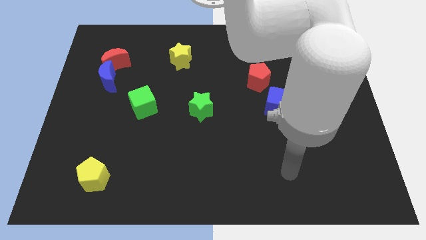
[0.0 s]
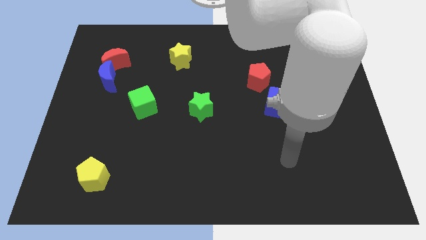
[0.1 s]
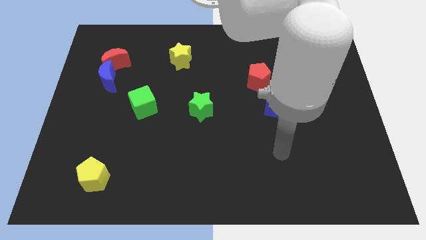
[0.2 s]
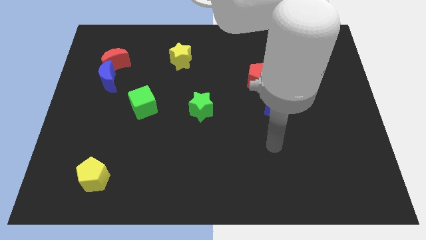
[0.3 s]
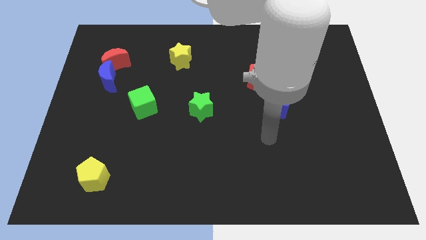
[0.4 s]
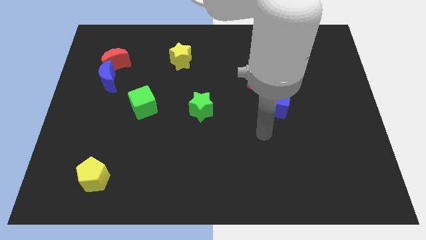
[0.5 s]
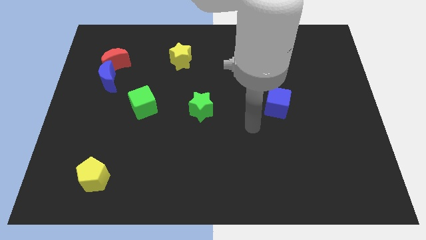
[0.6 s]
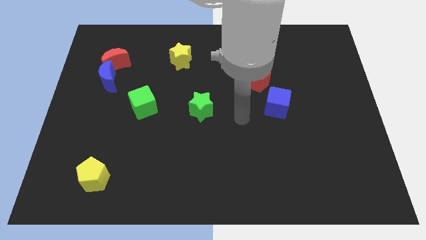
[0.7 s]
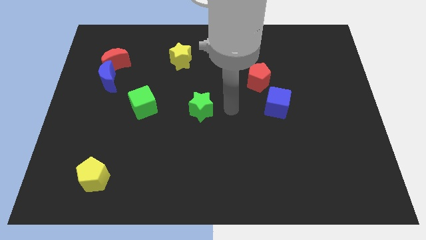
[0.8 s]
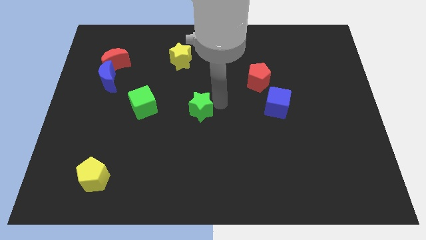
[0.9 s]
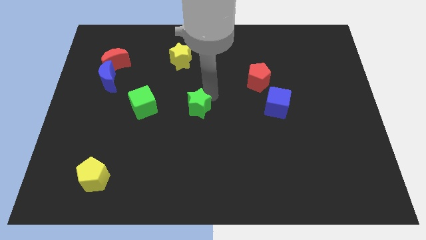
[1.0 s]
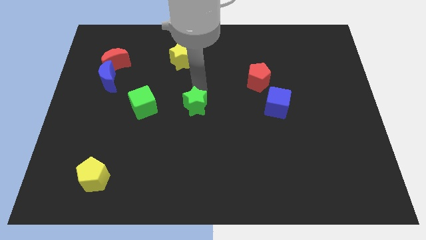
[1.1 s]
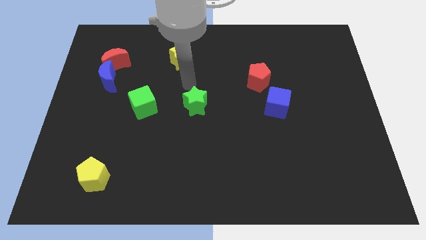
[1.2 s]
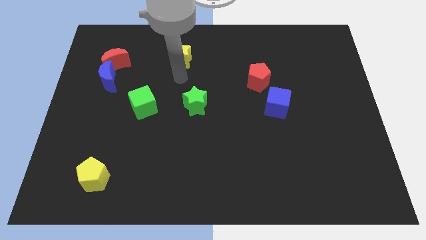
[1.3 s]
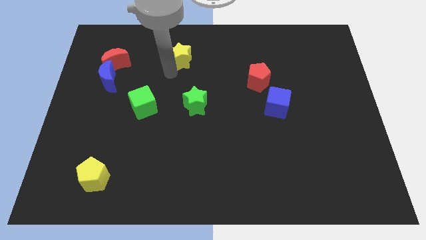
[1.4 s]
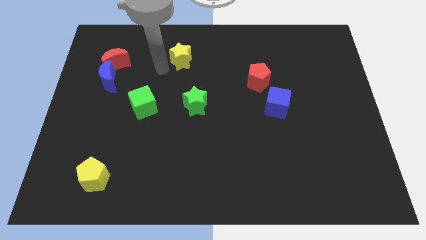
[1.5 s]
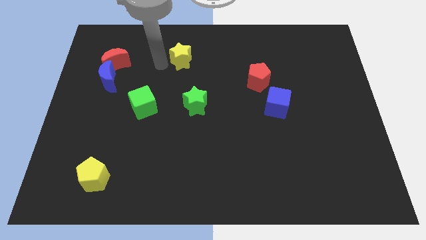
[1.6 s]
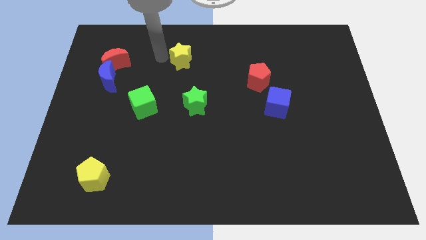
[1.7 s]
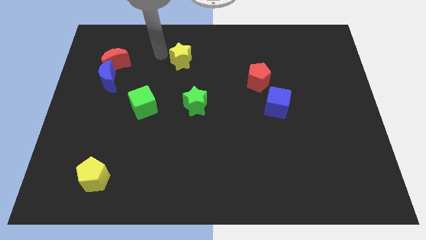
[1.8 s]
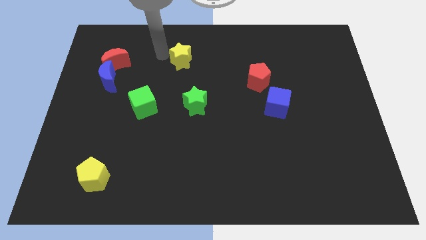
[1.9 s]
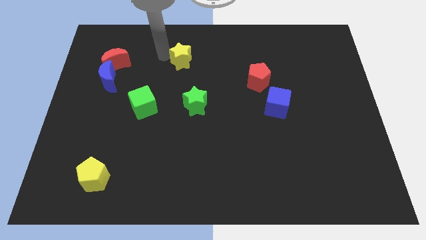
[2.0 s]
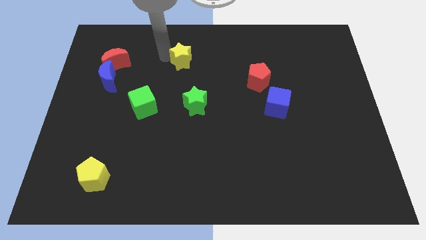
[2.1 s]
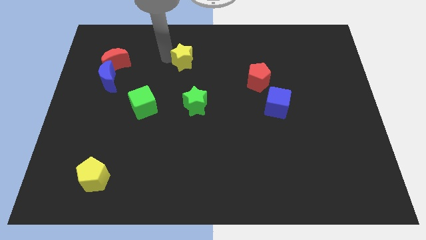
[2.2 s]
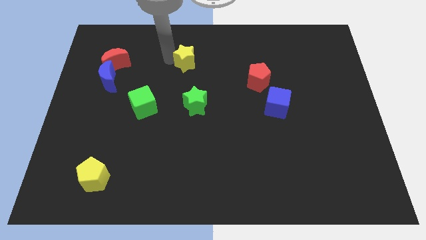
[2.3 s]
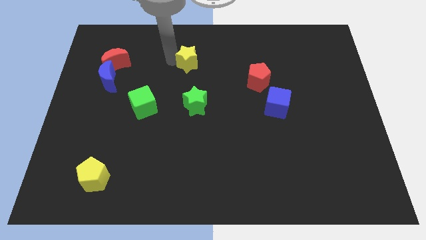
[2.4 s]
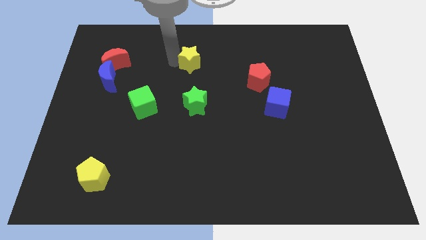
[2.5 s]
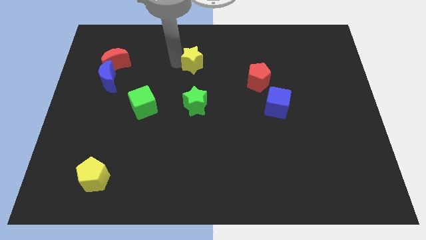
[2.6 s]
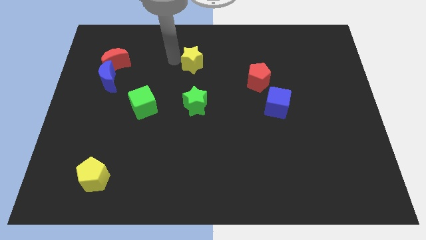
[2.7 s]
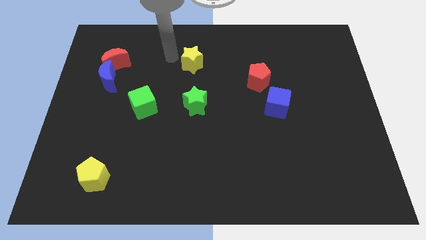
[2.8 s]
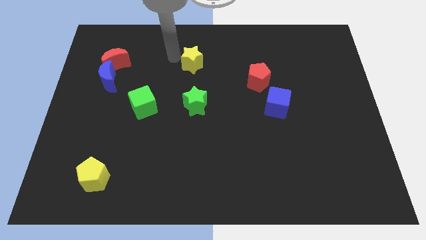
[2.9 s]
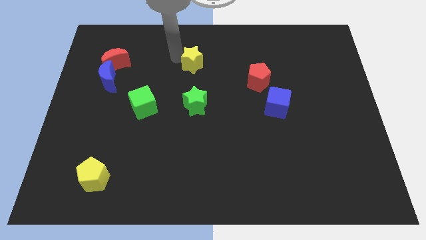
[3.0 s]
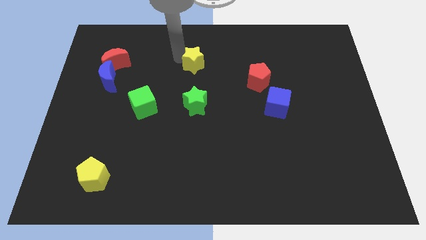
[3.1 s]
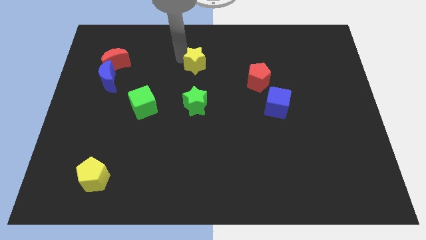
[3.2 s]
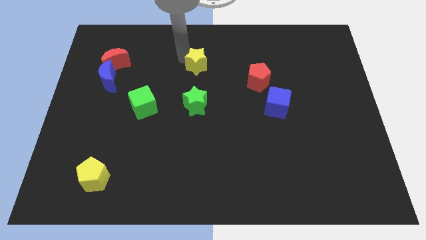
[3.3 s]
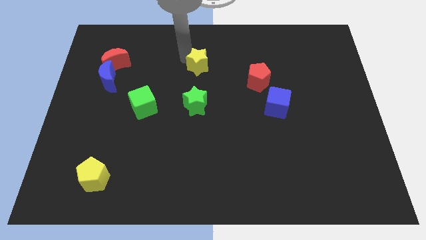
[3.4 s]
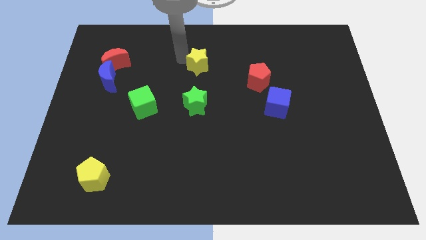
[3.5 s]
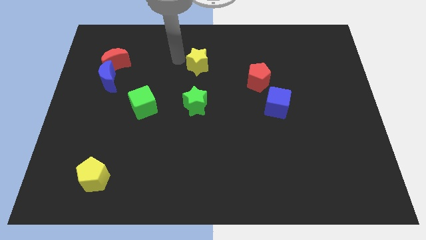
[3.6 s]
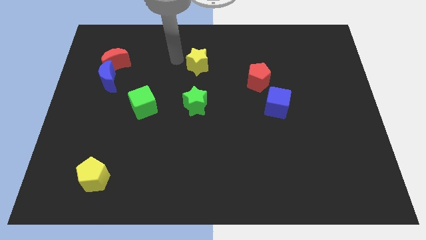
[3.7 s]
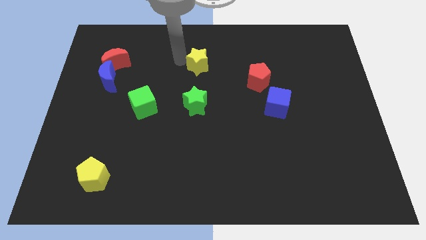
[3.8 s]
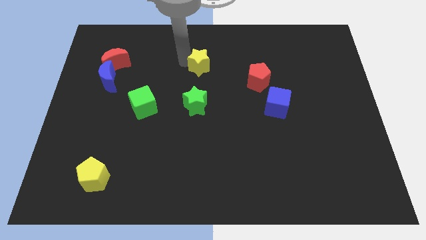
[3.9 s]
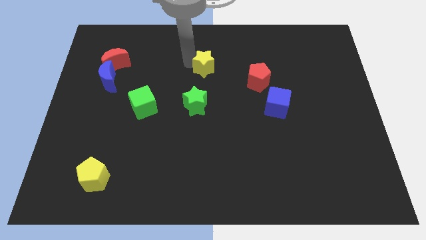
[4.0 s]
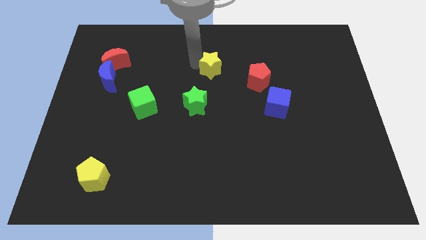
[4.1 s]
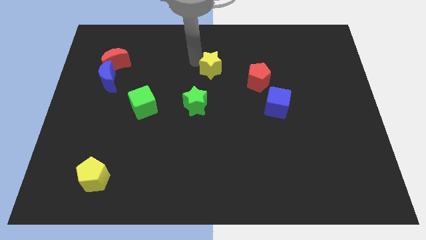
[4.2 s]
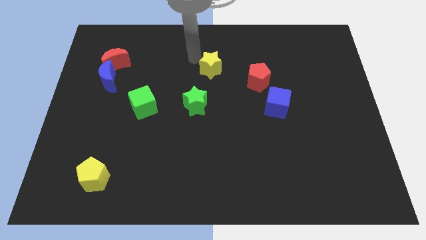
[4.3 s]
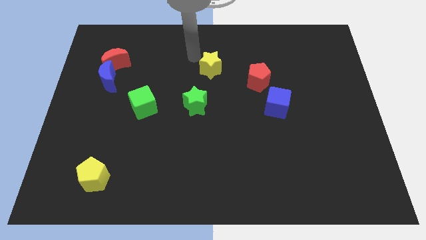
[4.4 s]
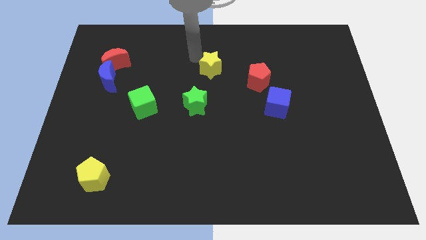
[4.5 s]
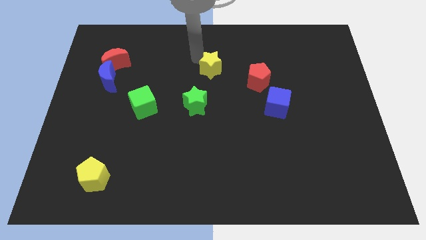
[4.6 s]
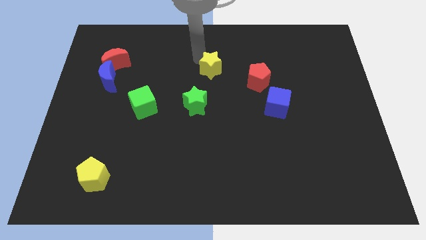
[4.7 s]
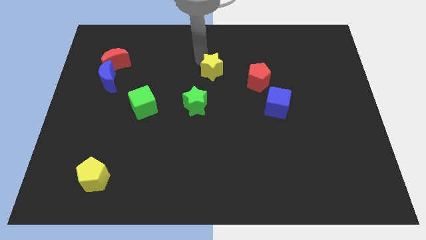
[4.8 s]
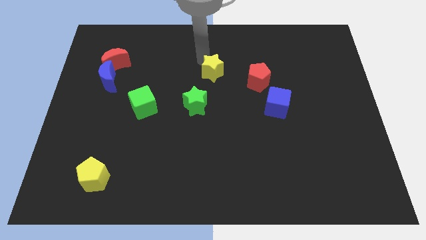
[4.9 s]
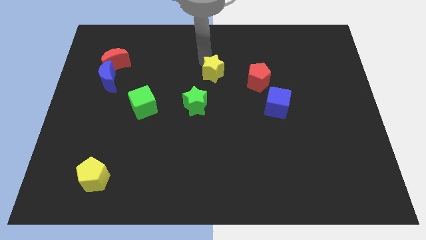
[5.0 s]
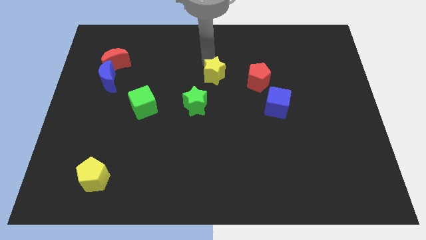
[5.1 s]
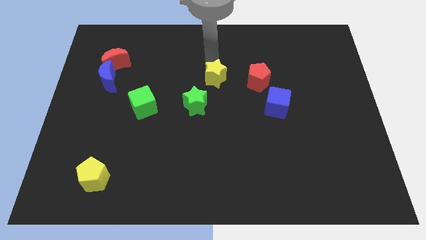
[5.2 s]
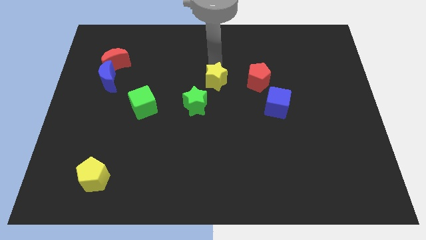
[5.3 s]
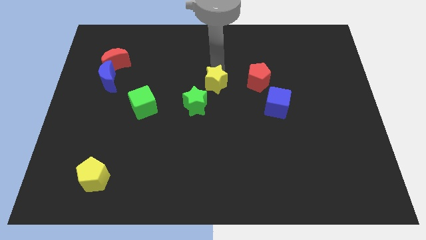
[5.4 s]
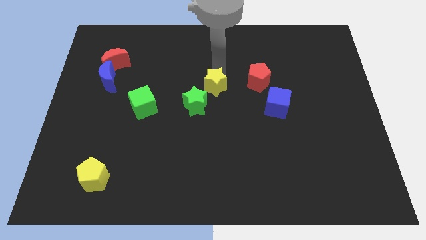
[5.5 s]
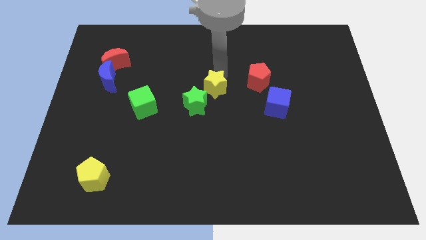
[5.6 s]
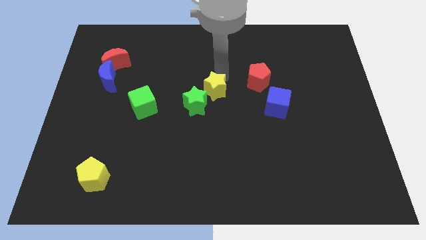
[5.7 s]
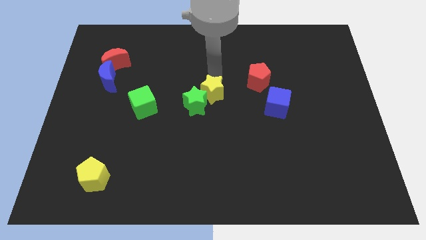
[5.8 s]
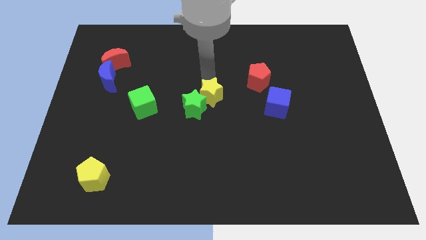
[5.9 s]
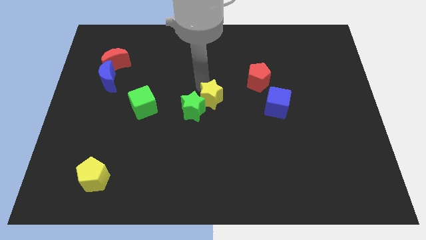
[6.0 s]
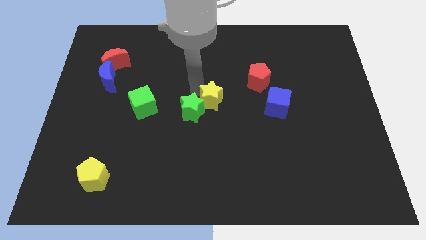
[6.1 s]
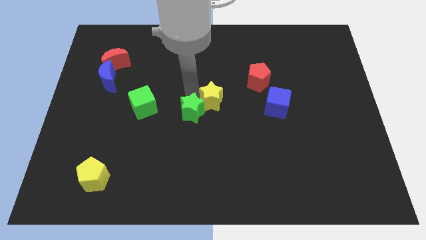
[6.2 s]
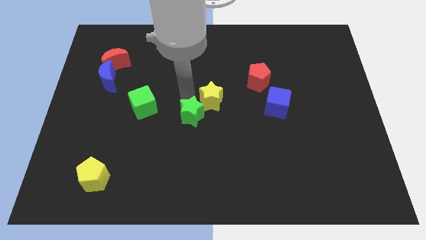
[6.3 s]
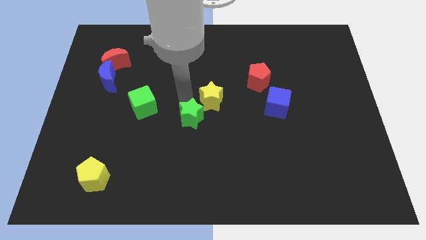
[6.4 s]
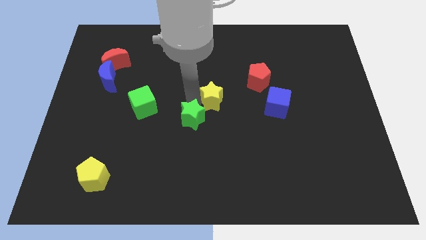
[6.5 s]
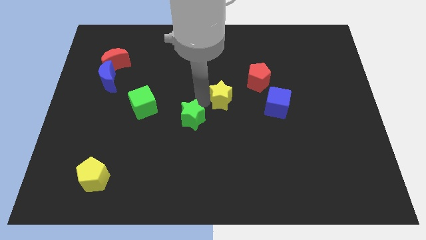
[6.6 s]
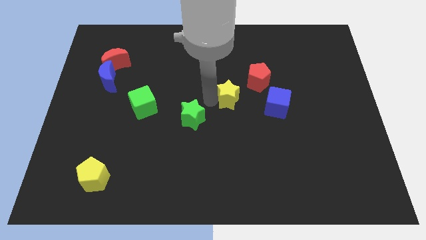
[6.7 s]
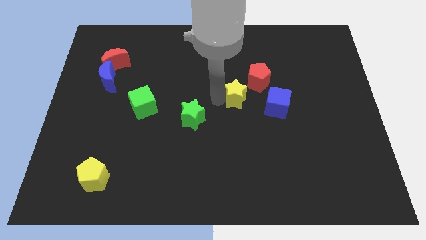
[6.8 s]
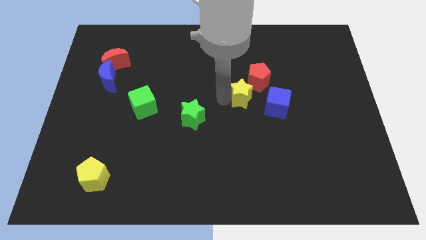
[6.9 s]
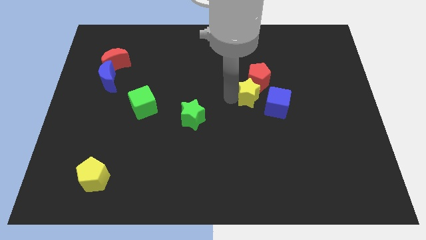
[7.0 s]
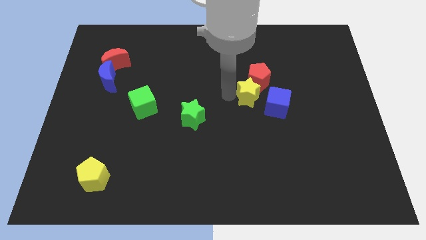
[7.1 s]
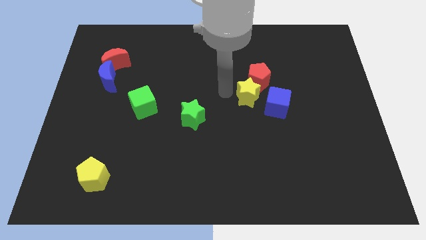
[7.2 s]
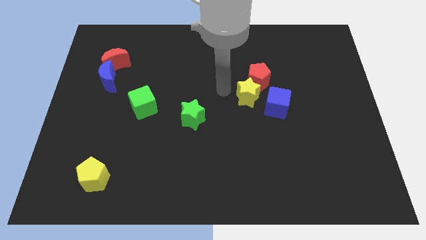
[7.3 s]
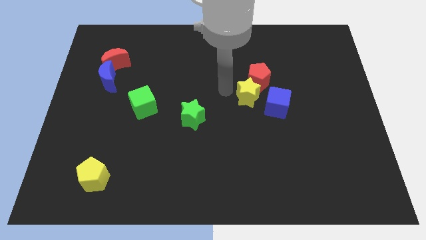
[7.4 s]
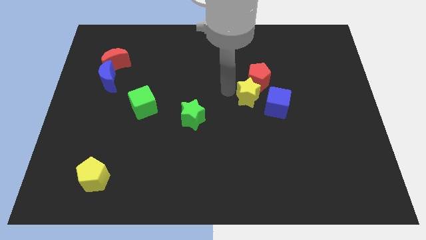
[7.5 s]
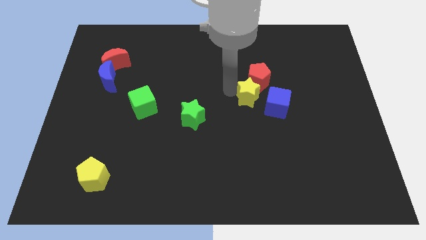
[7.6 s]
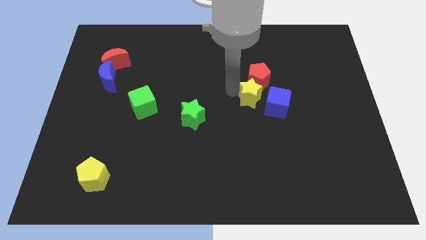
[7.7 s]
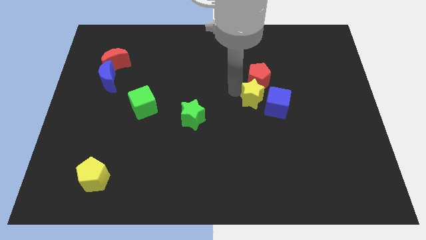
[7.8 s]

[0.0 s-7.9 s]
push the yellow star towards the blue cube
